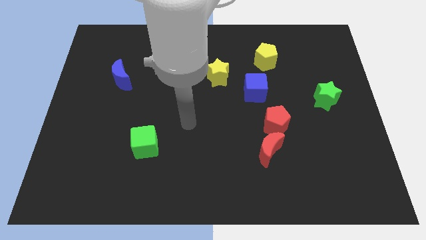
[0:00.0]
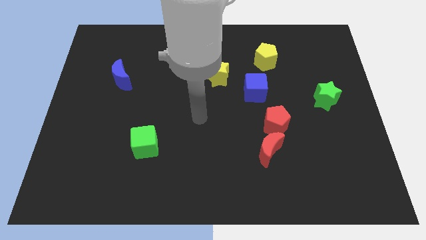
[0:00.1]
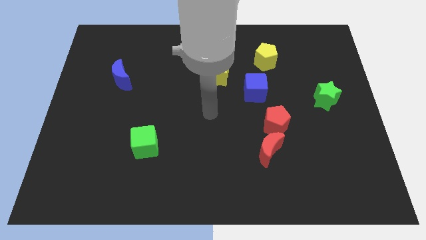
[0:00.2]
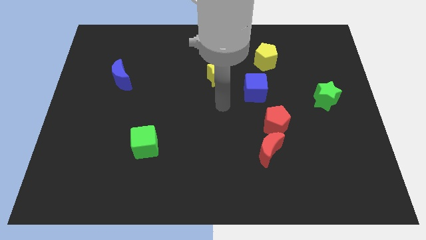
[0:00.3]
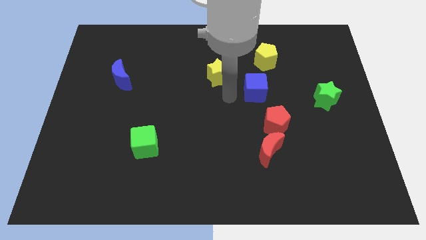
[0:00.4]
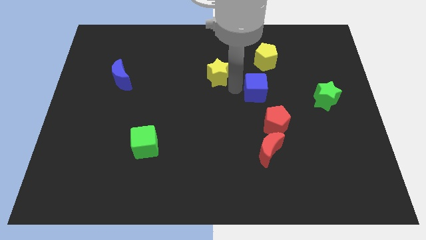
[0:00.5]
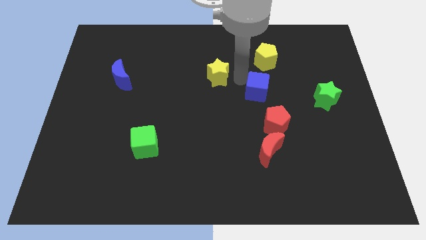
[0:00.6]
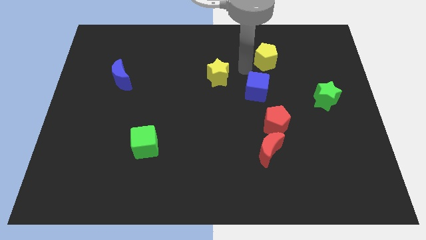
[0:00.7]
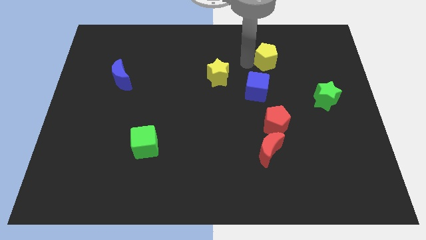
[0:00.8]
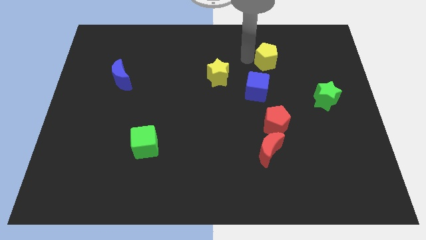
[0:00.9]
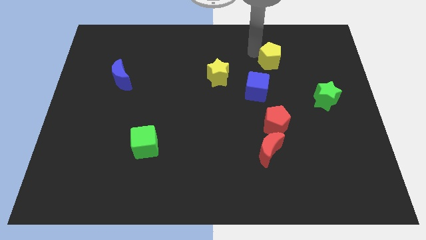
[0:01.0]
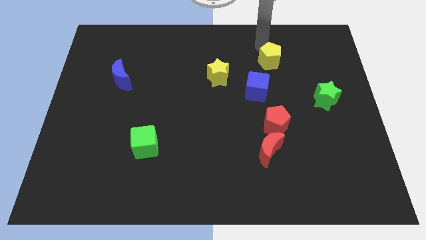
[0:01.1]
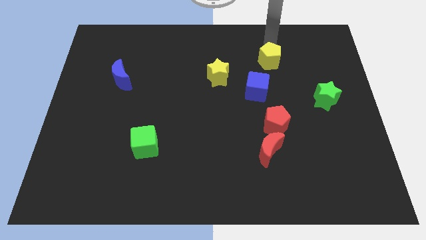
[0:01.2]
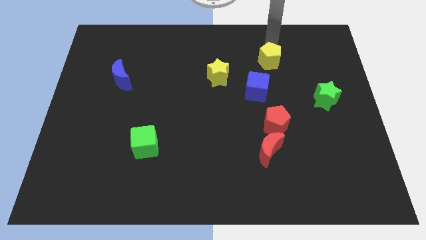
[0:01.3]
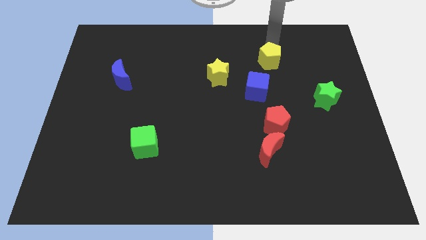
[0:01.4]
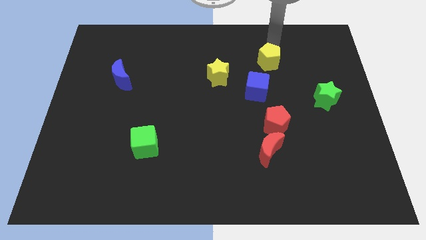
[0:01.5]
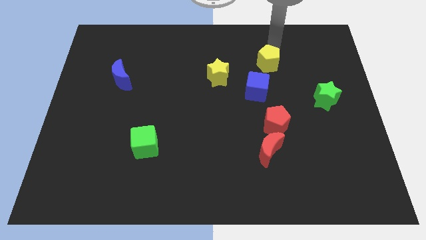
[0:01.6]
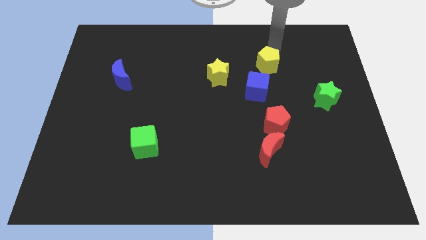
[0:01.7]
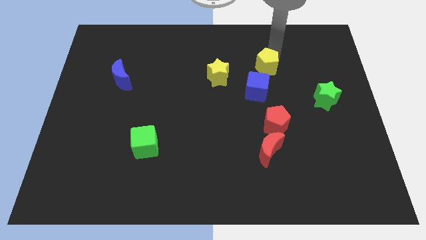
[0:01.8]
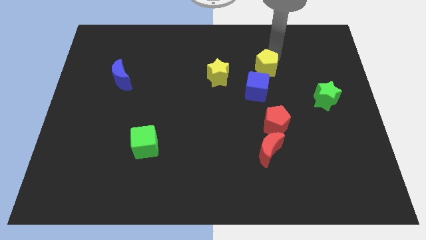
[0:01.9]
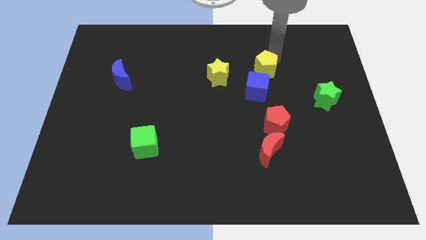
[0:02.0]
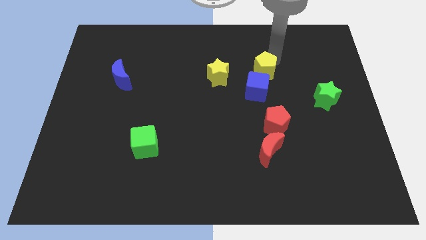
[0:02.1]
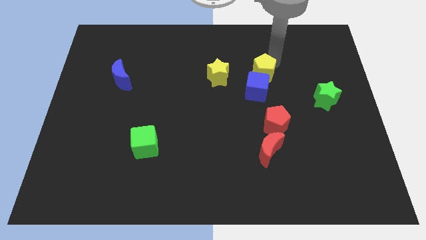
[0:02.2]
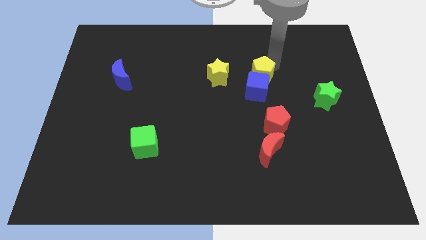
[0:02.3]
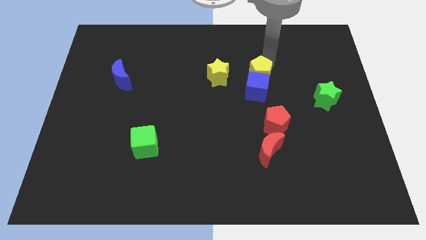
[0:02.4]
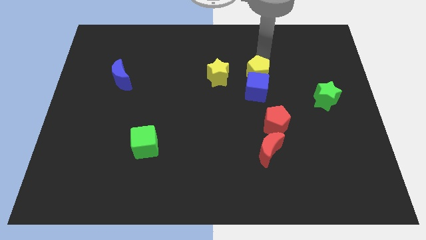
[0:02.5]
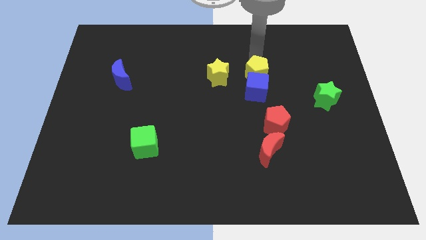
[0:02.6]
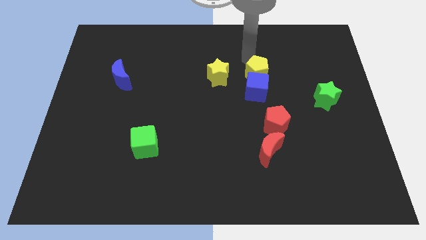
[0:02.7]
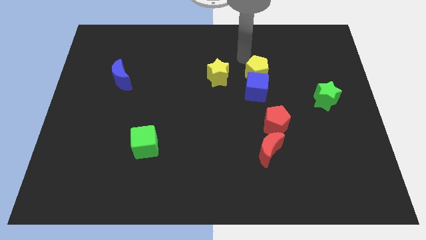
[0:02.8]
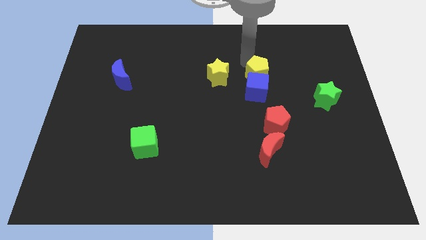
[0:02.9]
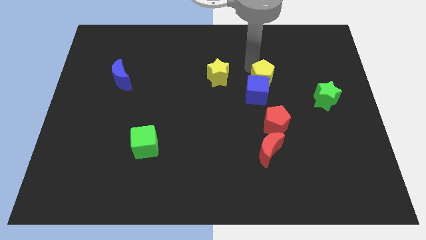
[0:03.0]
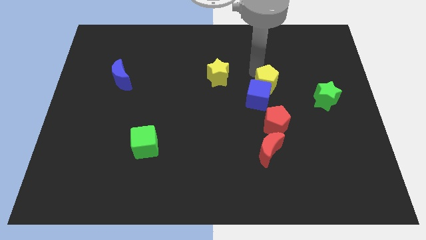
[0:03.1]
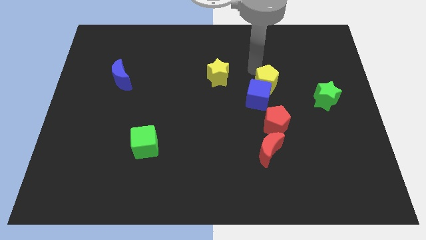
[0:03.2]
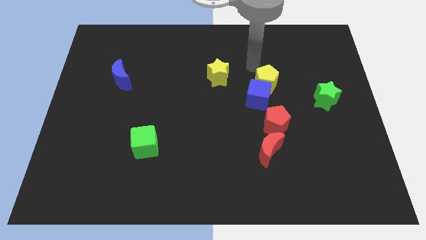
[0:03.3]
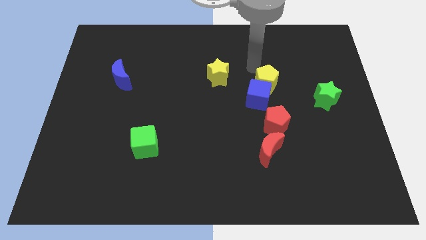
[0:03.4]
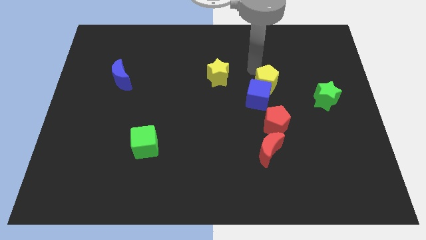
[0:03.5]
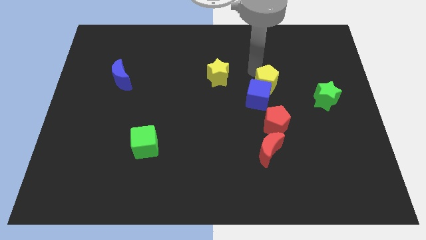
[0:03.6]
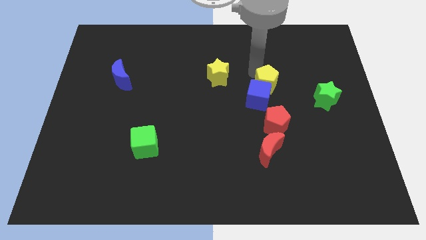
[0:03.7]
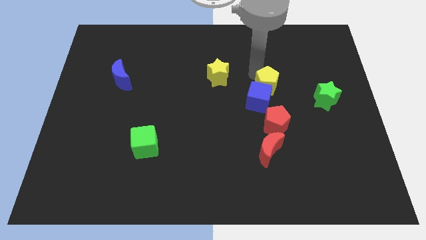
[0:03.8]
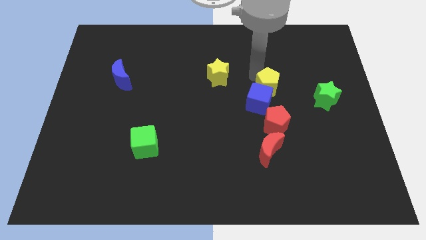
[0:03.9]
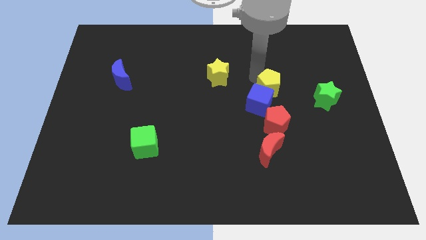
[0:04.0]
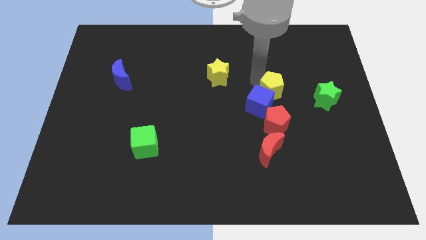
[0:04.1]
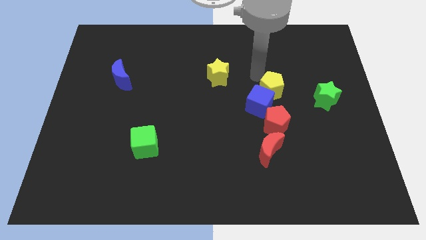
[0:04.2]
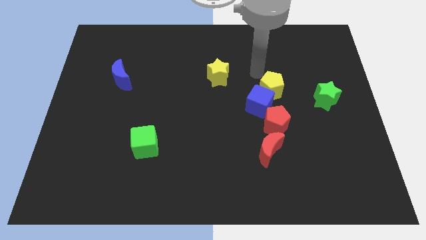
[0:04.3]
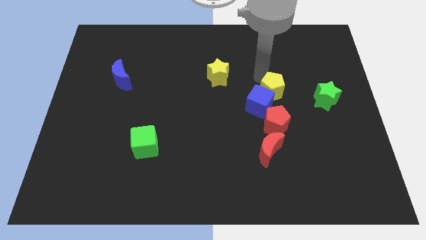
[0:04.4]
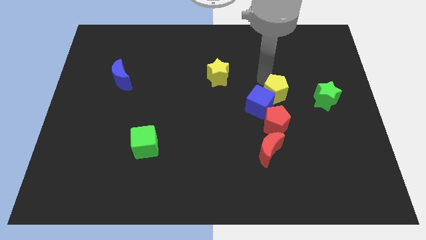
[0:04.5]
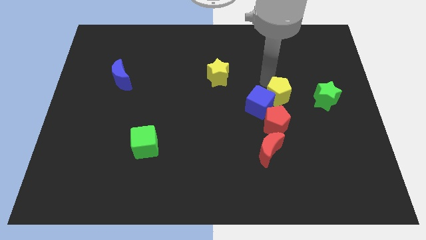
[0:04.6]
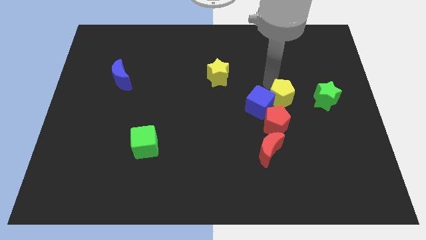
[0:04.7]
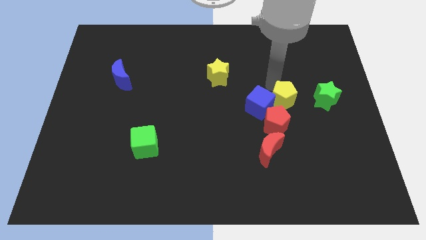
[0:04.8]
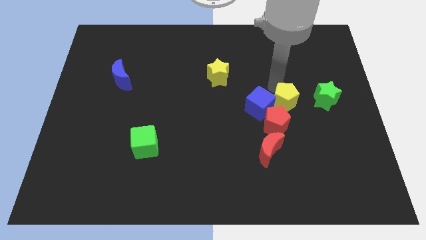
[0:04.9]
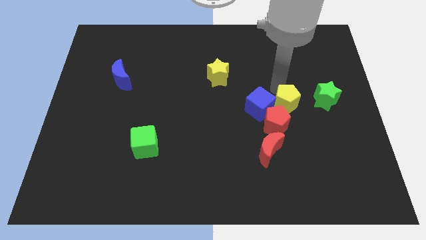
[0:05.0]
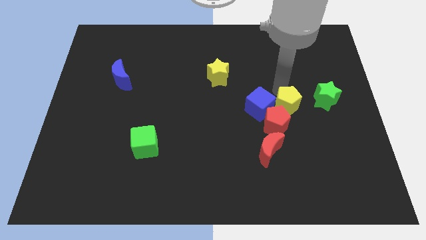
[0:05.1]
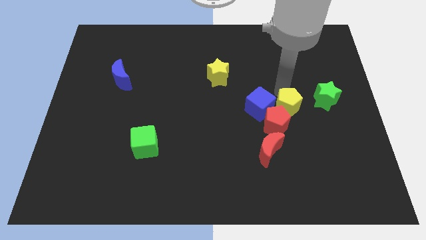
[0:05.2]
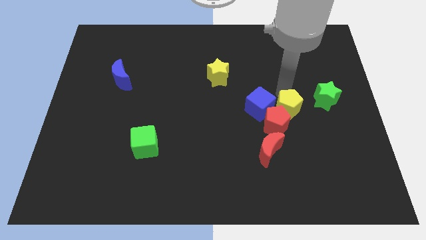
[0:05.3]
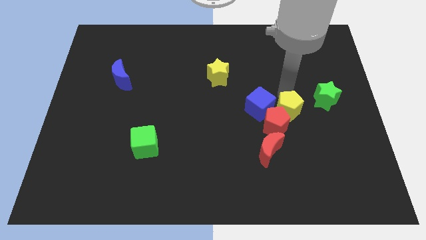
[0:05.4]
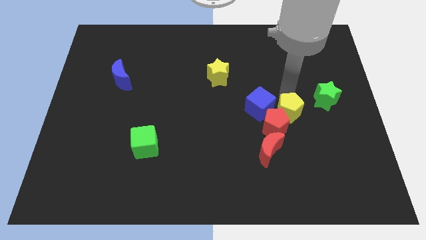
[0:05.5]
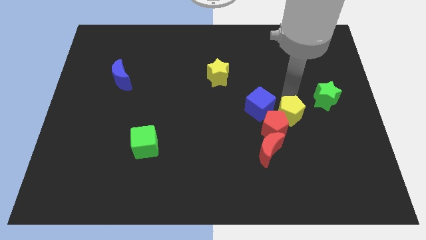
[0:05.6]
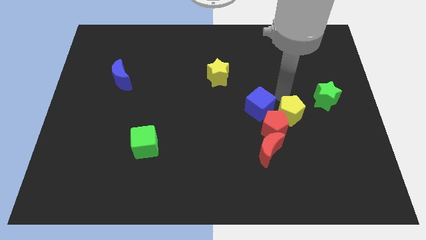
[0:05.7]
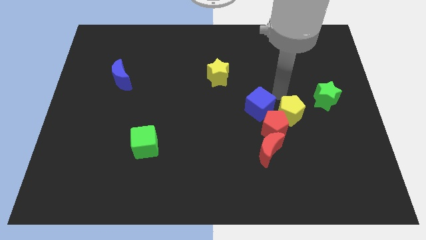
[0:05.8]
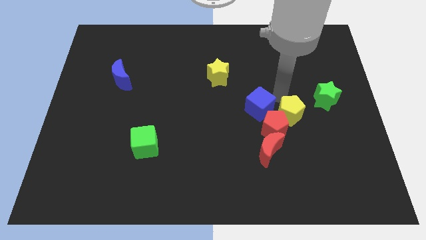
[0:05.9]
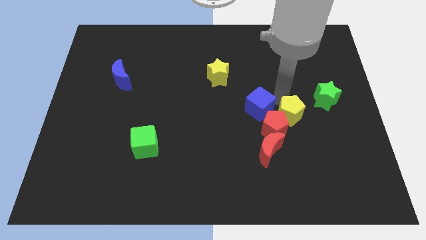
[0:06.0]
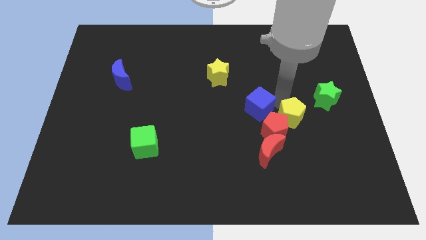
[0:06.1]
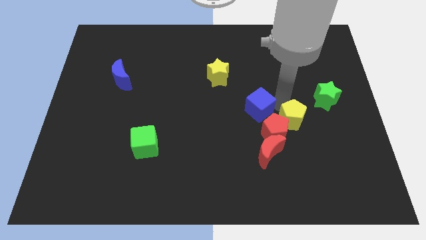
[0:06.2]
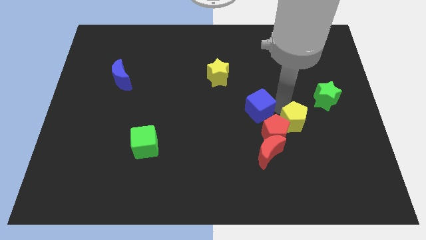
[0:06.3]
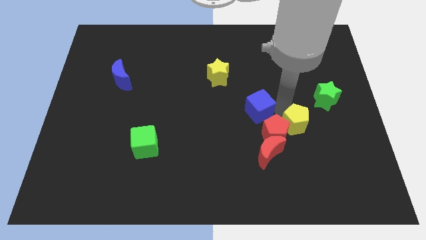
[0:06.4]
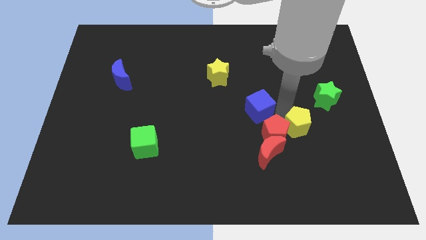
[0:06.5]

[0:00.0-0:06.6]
push the yellow pentagon down

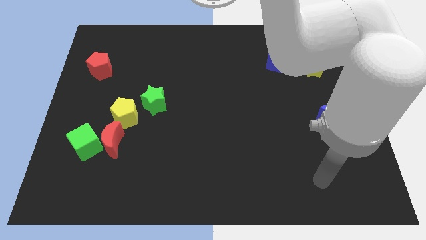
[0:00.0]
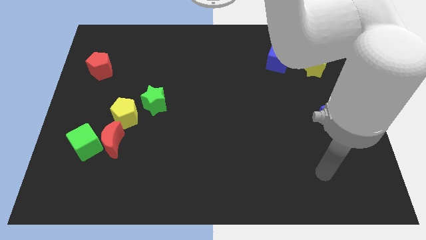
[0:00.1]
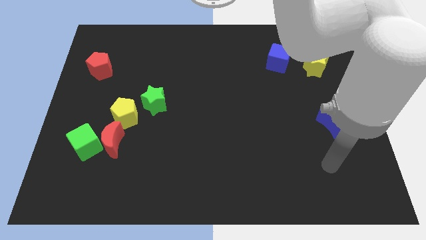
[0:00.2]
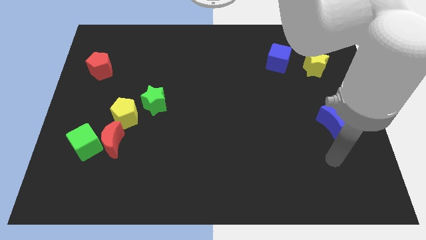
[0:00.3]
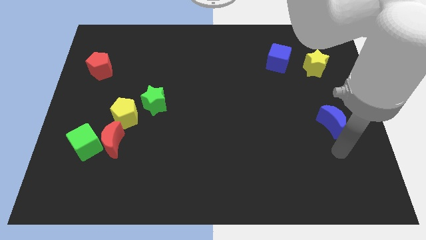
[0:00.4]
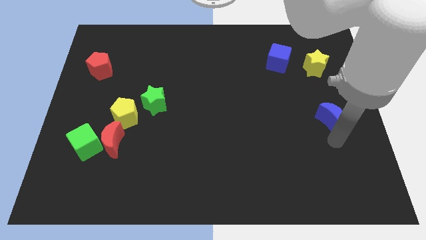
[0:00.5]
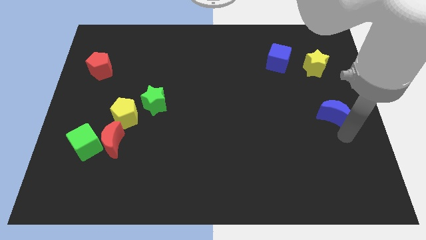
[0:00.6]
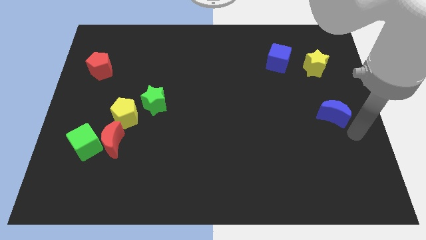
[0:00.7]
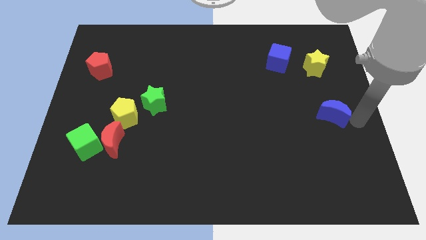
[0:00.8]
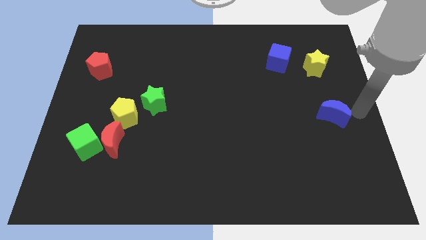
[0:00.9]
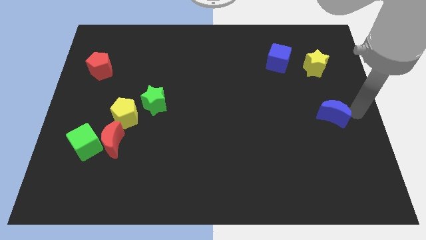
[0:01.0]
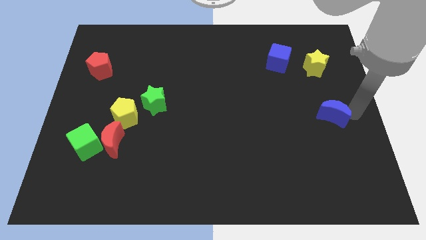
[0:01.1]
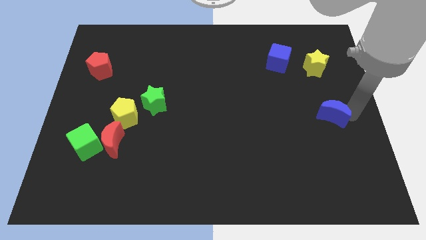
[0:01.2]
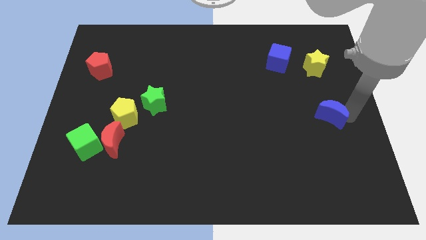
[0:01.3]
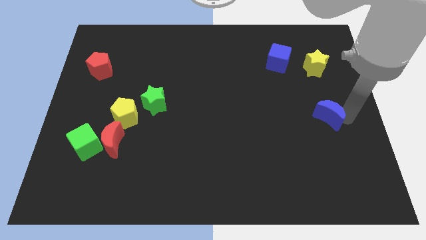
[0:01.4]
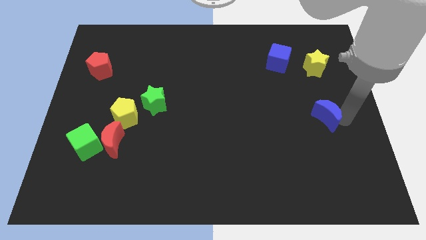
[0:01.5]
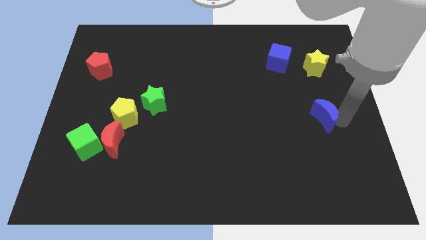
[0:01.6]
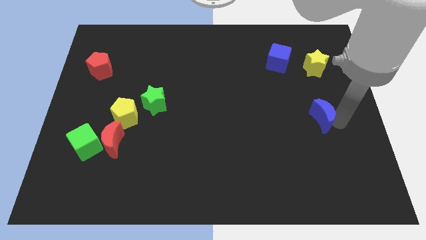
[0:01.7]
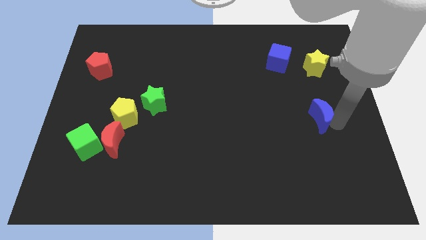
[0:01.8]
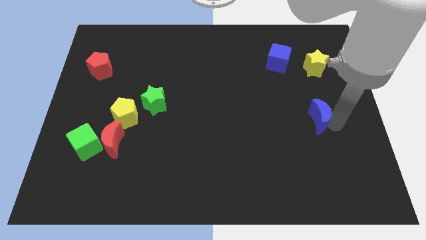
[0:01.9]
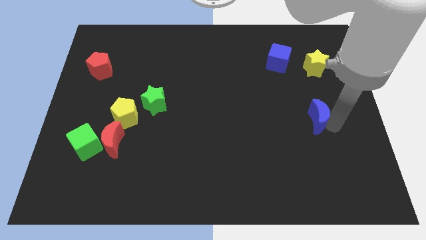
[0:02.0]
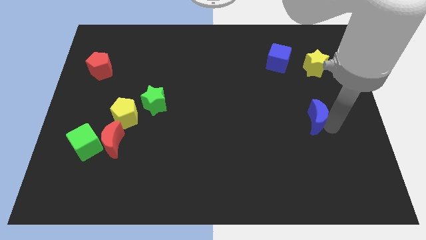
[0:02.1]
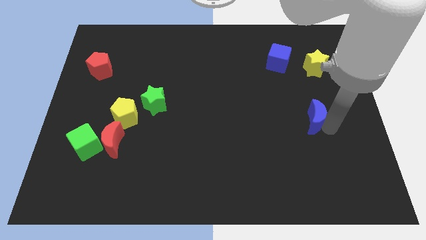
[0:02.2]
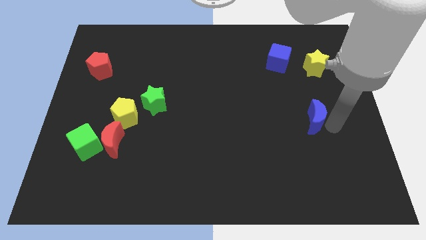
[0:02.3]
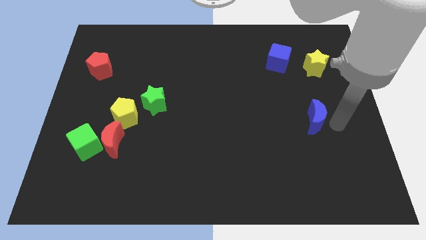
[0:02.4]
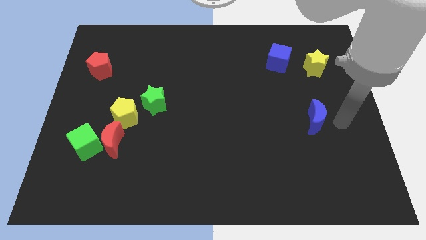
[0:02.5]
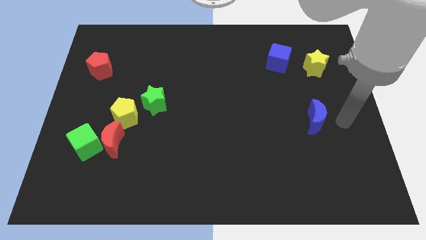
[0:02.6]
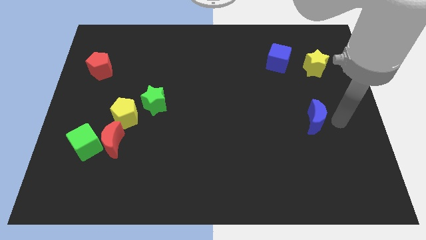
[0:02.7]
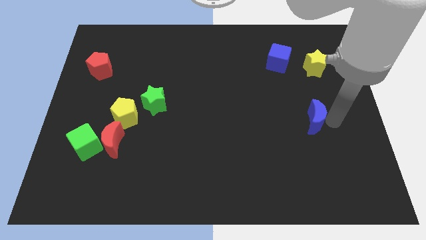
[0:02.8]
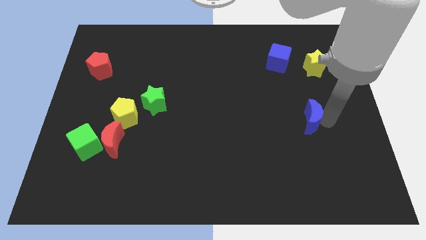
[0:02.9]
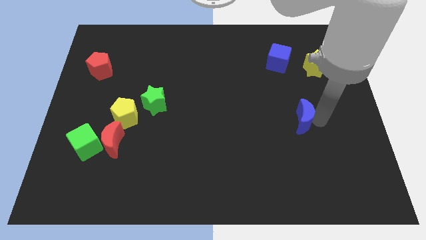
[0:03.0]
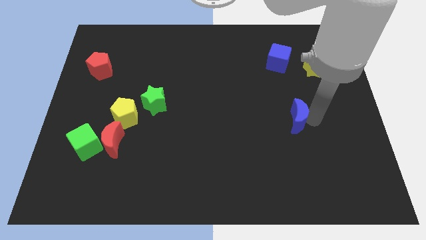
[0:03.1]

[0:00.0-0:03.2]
move the blue moon a little bit to the left
